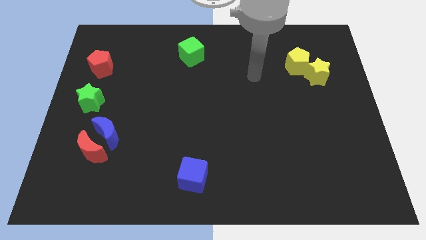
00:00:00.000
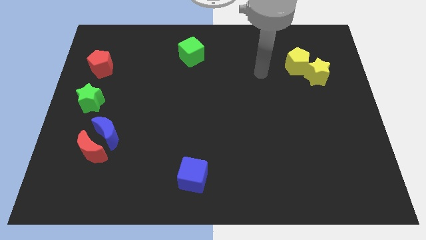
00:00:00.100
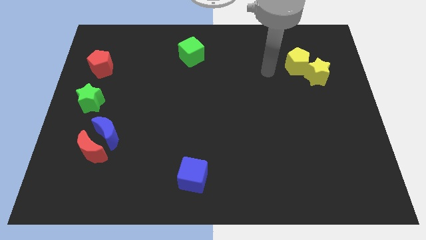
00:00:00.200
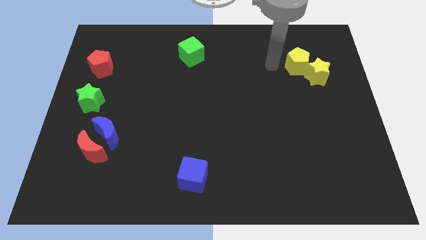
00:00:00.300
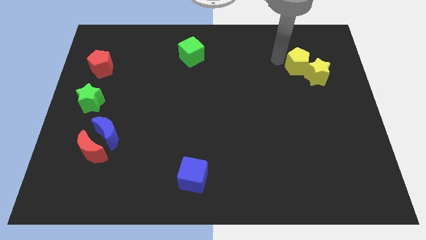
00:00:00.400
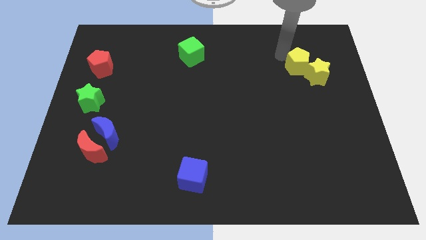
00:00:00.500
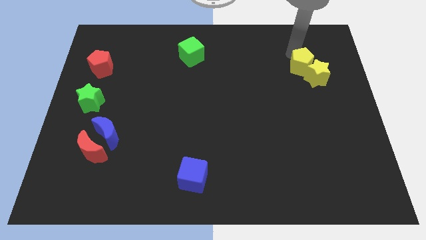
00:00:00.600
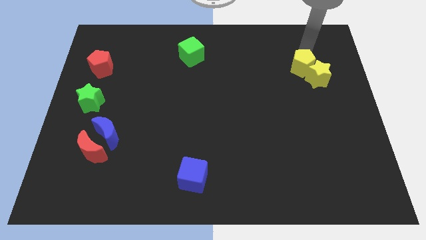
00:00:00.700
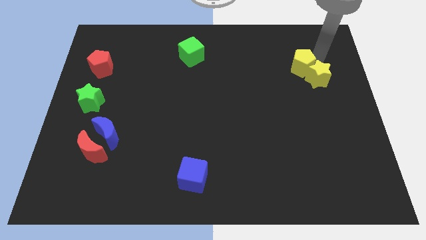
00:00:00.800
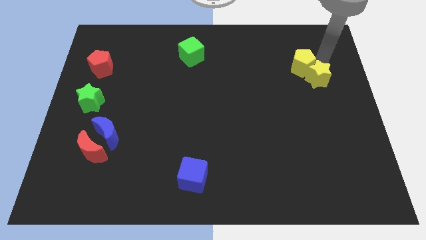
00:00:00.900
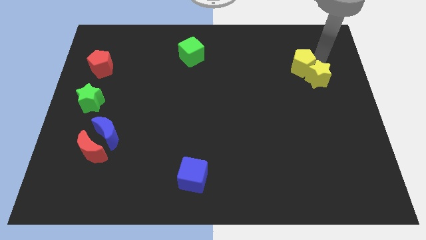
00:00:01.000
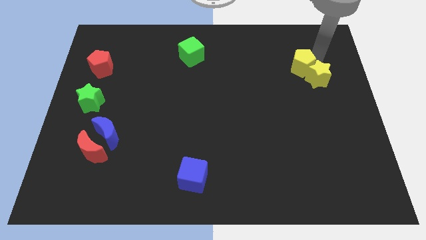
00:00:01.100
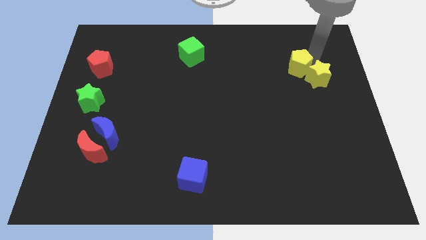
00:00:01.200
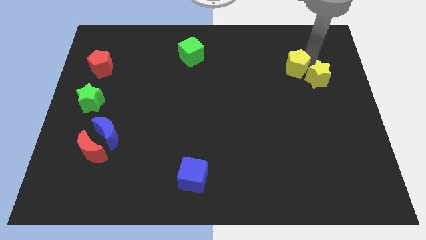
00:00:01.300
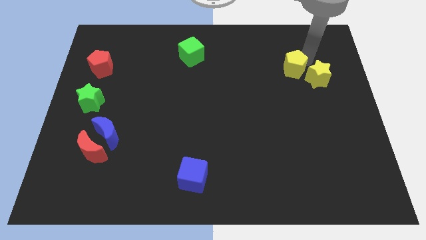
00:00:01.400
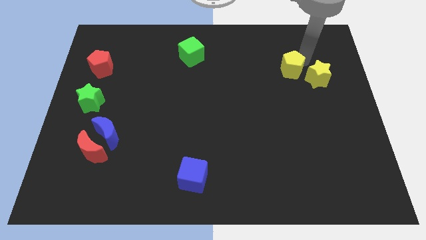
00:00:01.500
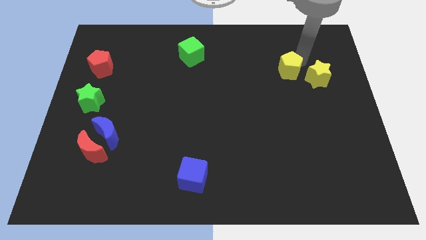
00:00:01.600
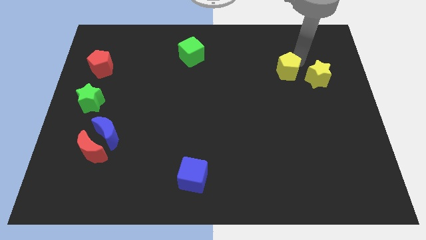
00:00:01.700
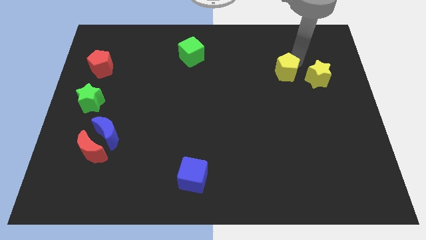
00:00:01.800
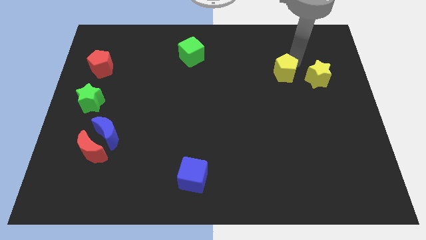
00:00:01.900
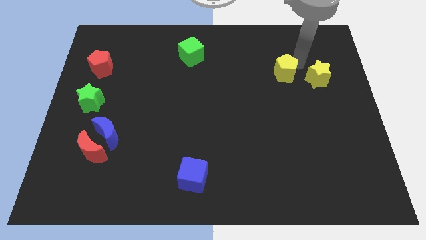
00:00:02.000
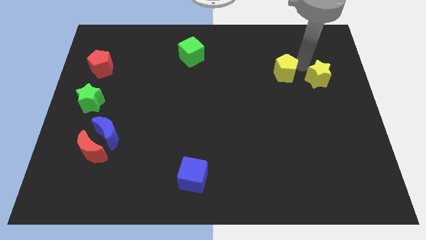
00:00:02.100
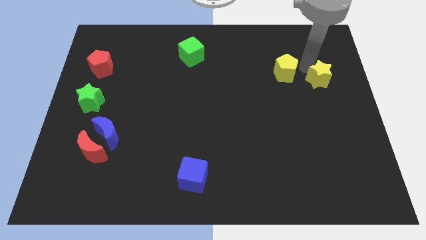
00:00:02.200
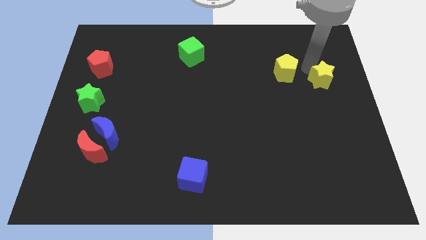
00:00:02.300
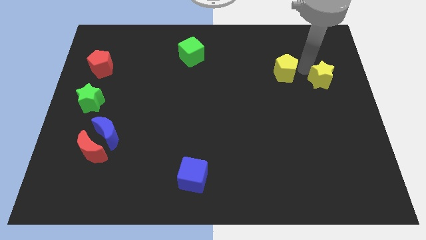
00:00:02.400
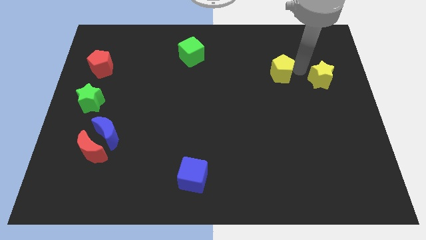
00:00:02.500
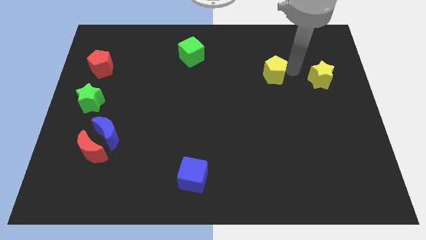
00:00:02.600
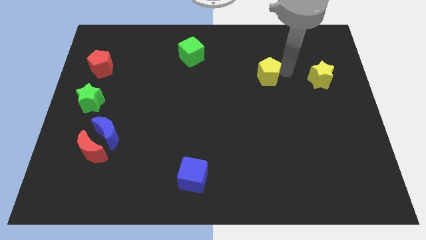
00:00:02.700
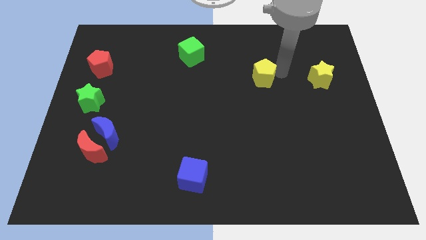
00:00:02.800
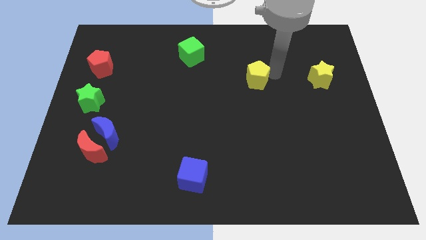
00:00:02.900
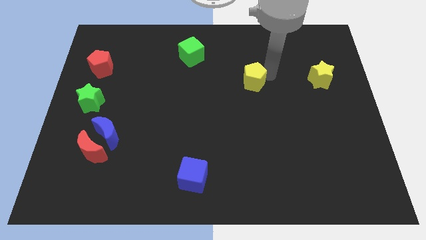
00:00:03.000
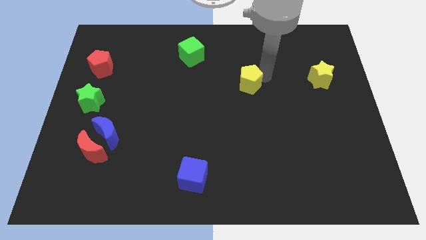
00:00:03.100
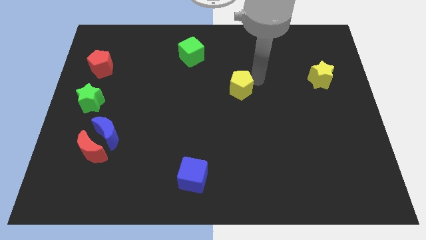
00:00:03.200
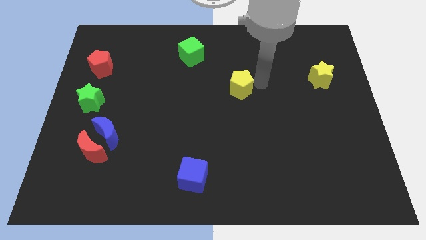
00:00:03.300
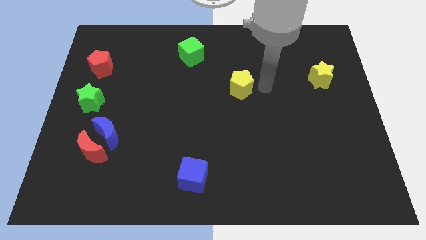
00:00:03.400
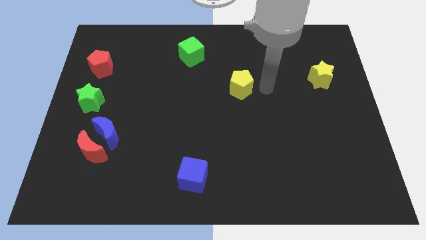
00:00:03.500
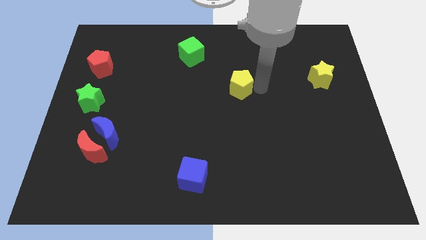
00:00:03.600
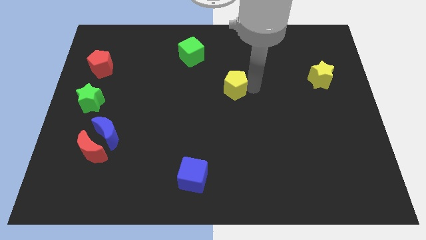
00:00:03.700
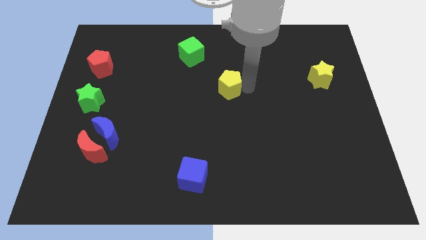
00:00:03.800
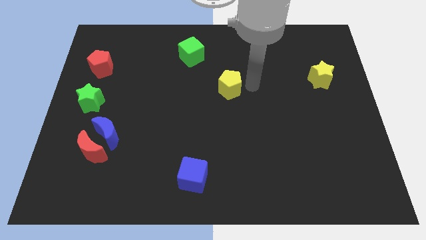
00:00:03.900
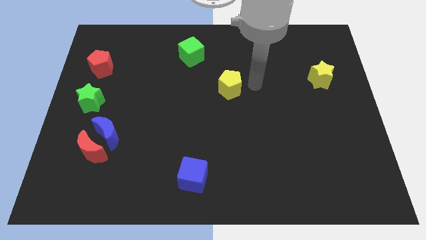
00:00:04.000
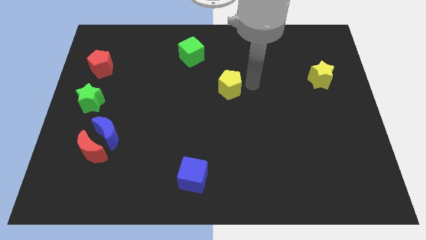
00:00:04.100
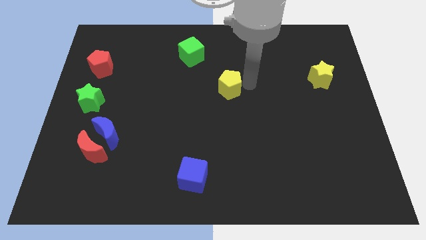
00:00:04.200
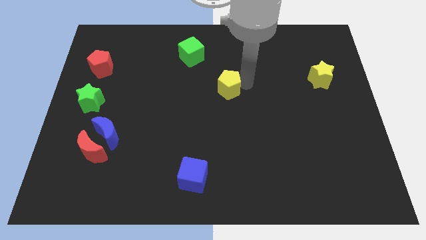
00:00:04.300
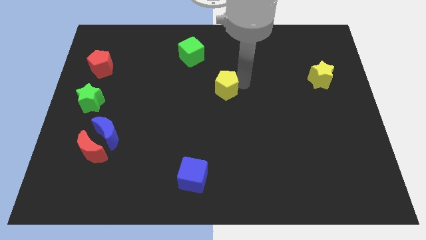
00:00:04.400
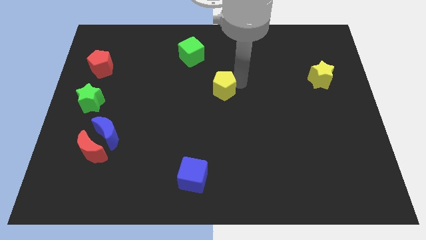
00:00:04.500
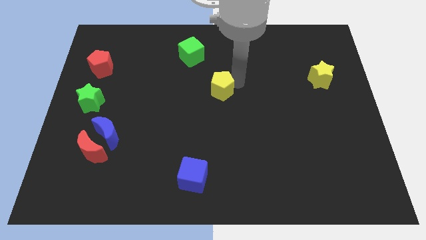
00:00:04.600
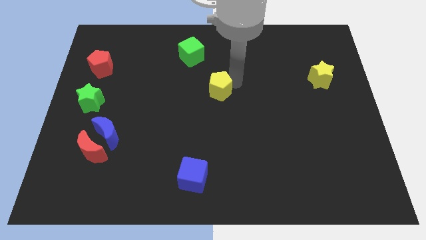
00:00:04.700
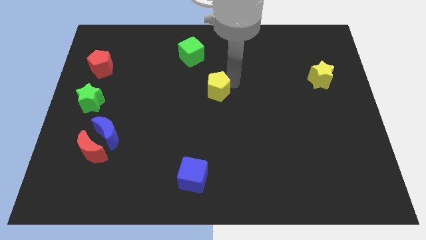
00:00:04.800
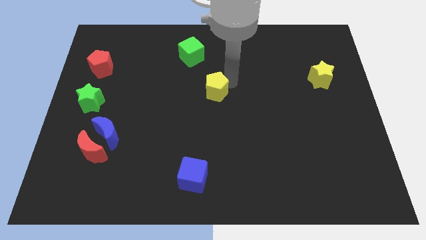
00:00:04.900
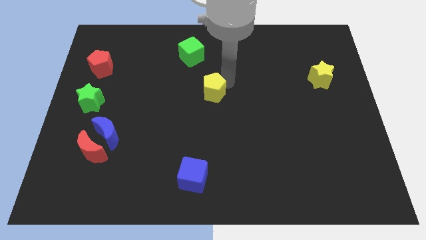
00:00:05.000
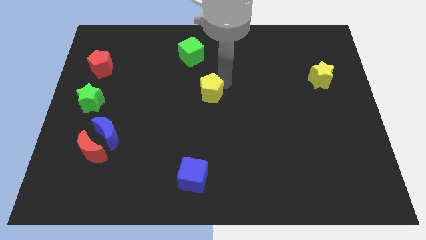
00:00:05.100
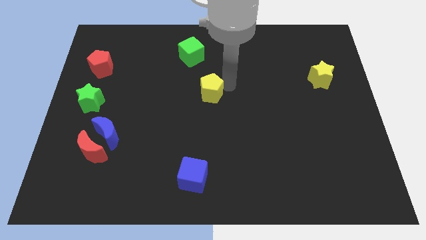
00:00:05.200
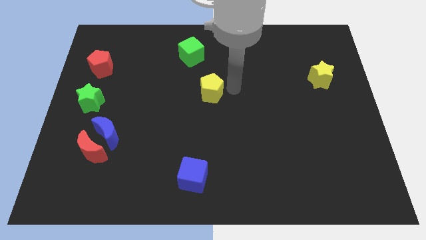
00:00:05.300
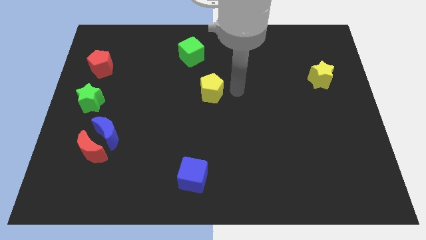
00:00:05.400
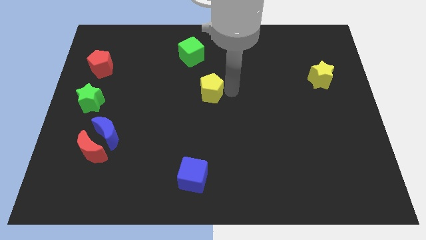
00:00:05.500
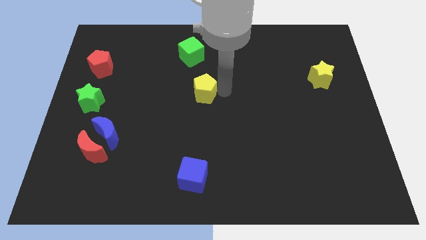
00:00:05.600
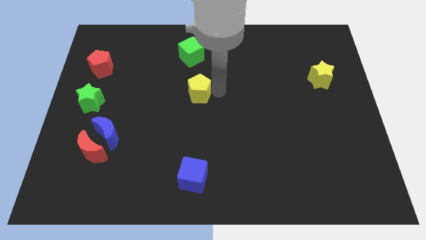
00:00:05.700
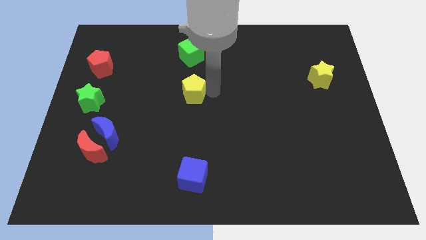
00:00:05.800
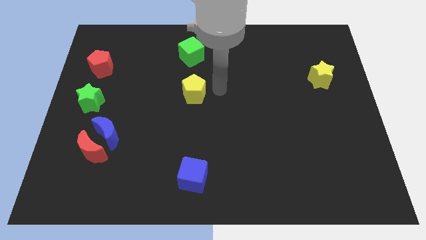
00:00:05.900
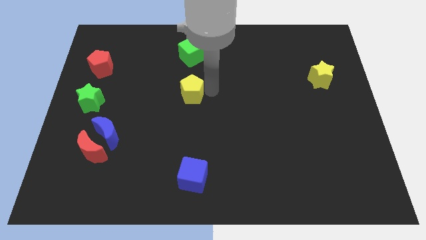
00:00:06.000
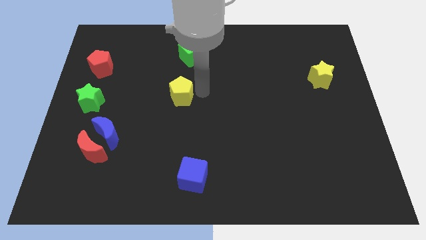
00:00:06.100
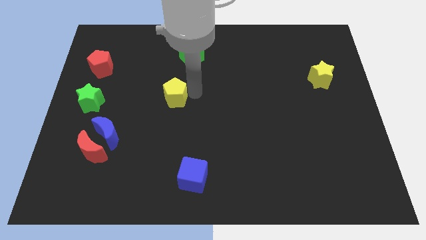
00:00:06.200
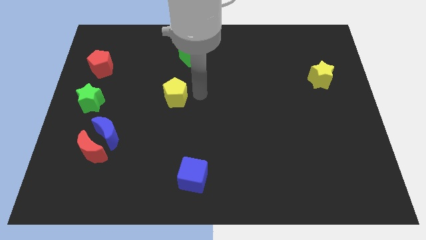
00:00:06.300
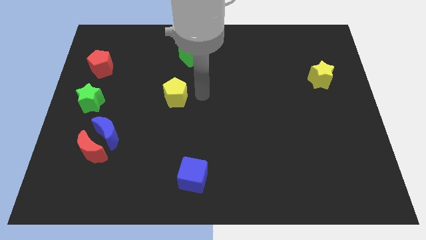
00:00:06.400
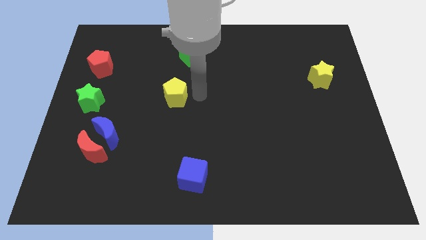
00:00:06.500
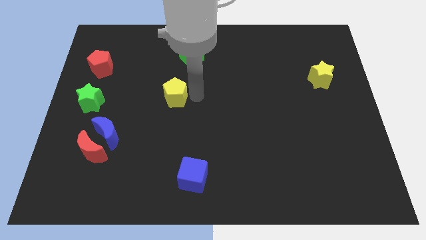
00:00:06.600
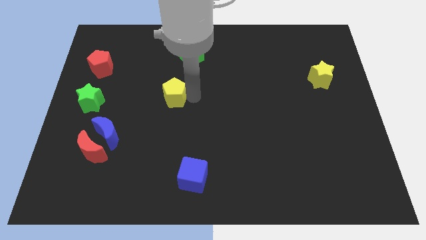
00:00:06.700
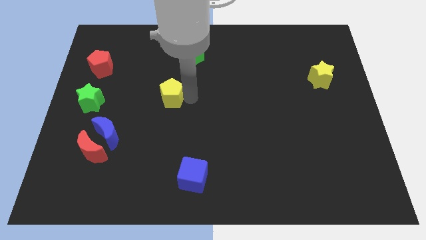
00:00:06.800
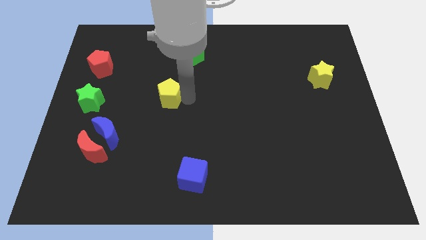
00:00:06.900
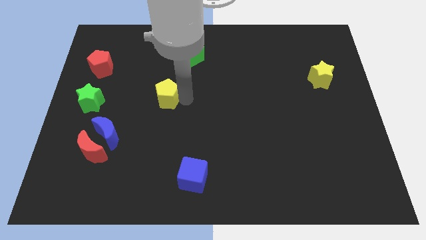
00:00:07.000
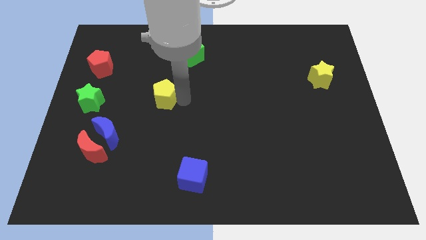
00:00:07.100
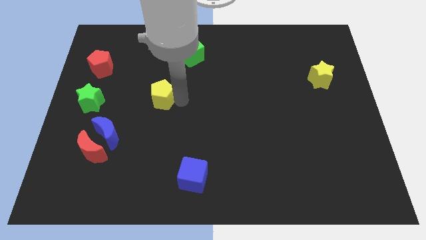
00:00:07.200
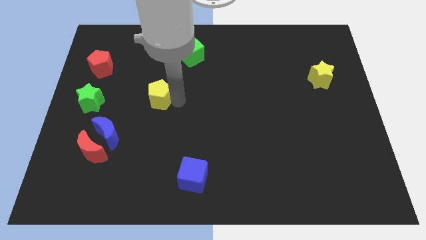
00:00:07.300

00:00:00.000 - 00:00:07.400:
move the yellow pentagon to the right side of the green star

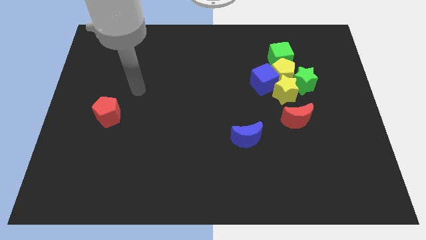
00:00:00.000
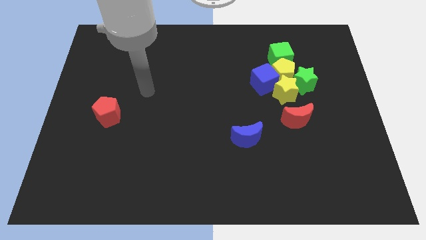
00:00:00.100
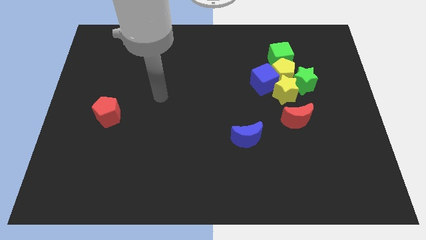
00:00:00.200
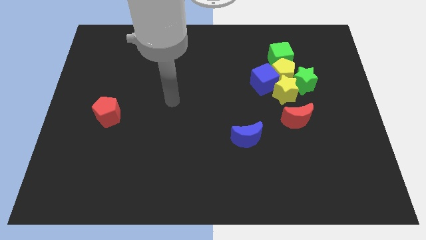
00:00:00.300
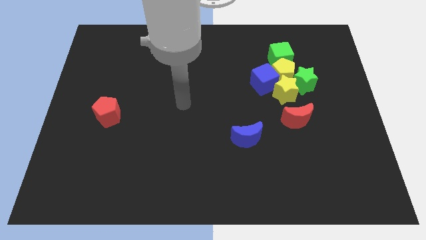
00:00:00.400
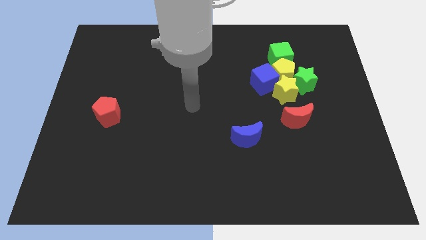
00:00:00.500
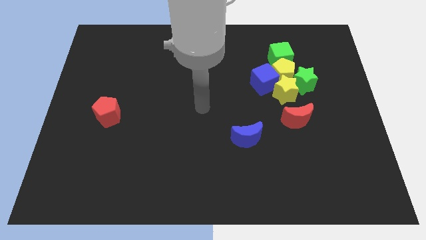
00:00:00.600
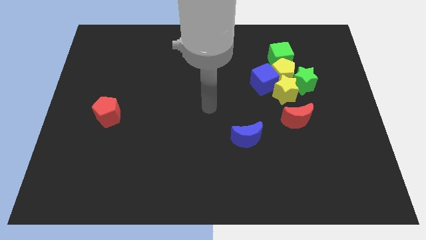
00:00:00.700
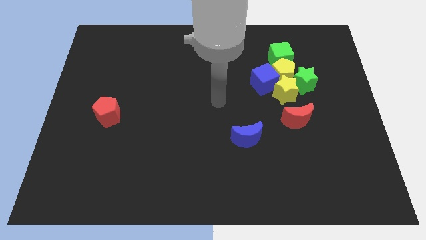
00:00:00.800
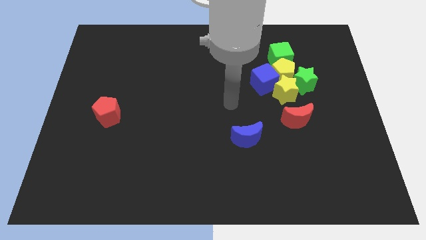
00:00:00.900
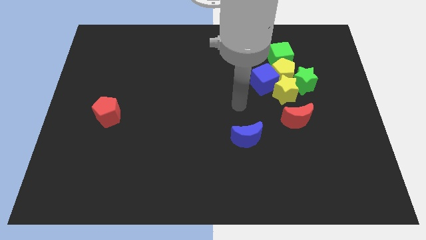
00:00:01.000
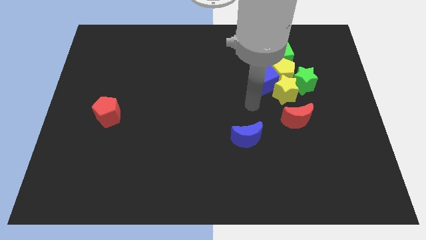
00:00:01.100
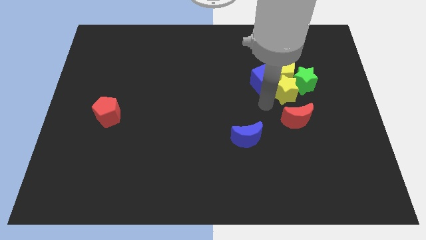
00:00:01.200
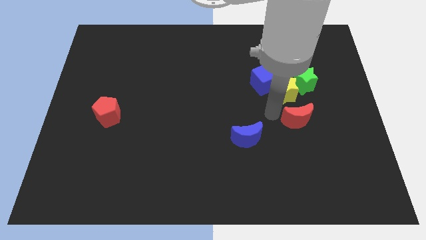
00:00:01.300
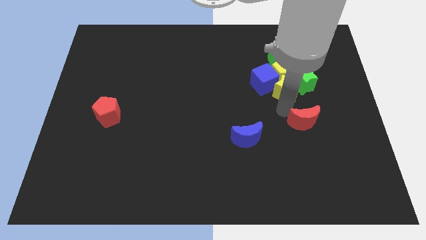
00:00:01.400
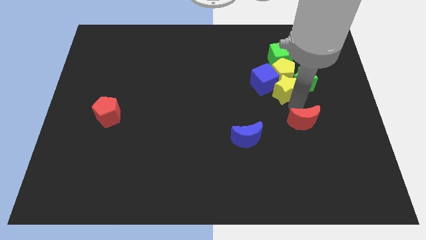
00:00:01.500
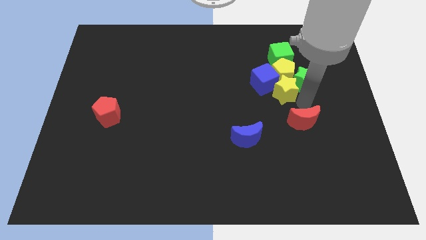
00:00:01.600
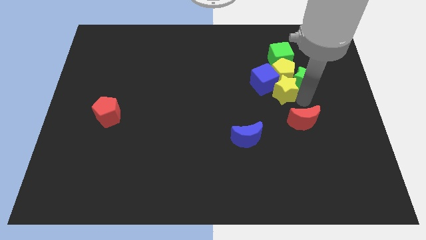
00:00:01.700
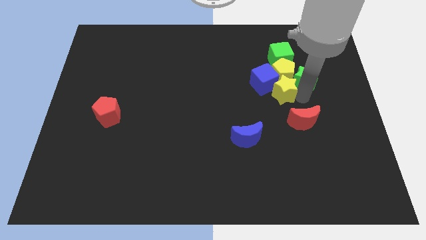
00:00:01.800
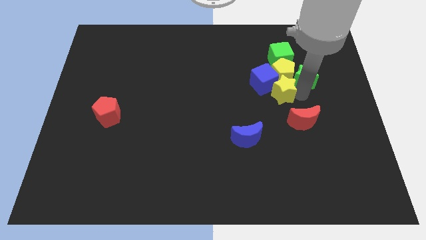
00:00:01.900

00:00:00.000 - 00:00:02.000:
slide the green star to the top right of the yellow pentagon
